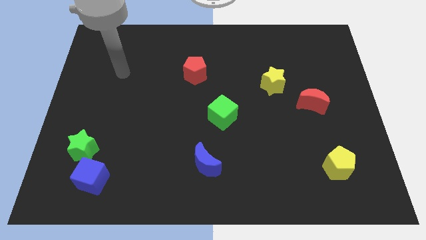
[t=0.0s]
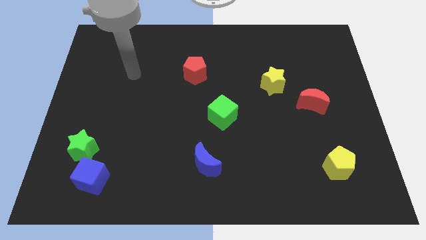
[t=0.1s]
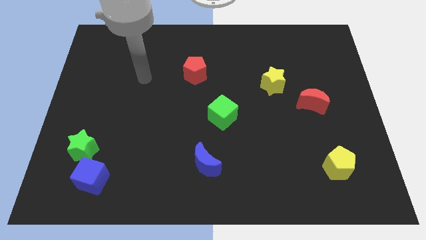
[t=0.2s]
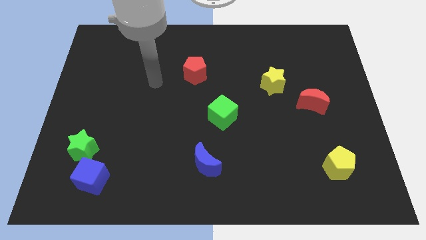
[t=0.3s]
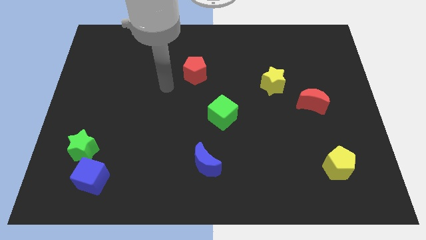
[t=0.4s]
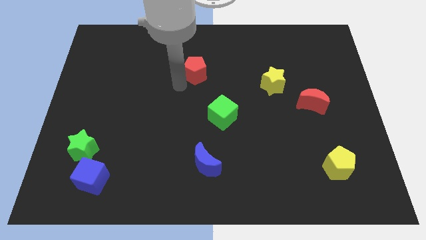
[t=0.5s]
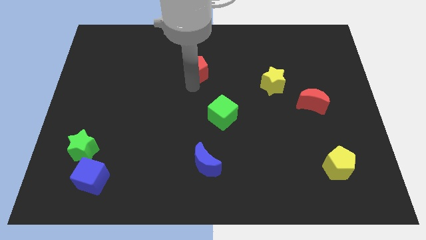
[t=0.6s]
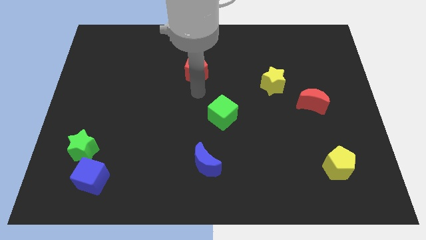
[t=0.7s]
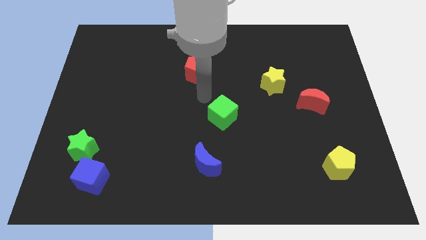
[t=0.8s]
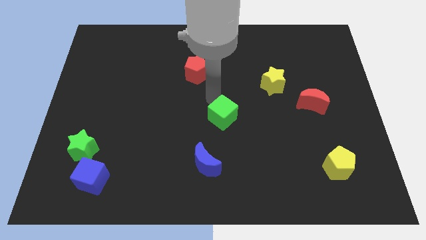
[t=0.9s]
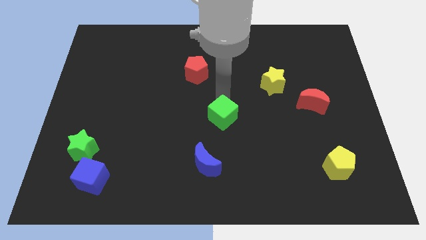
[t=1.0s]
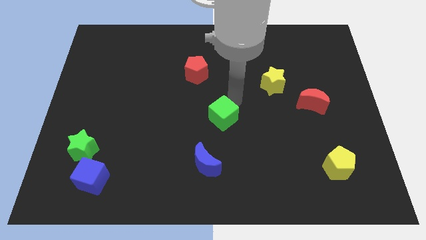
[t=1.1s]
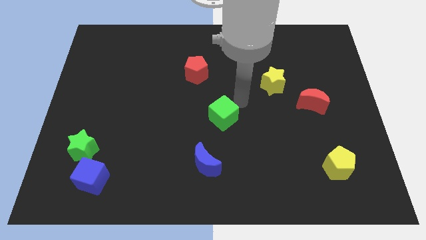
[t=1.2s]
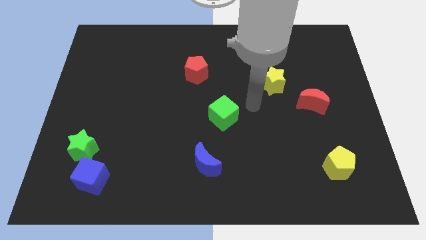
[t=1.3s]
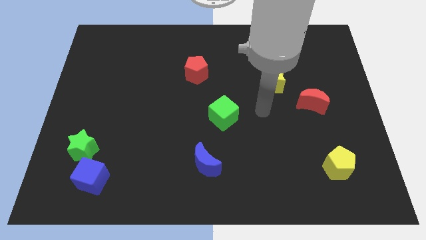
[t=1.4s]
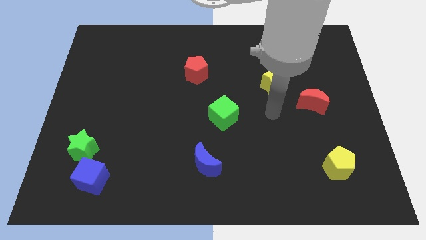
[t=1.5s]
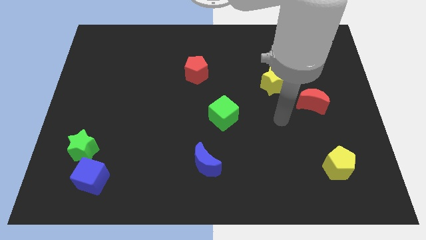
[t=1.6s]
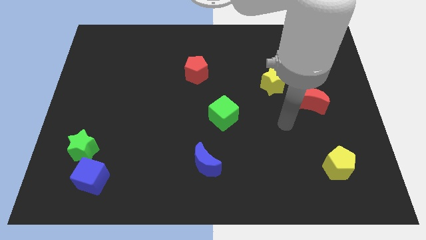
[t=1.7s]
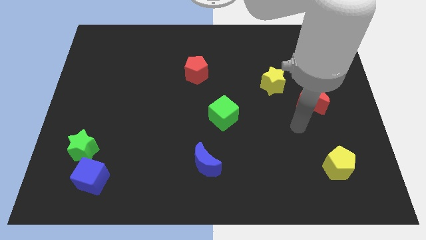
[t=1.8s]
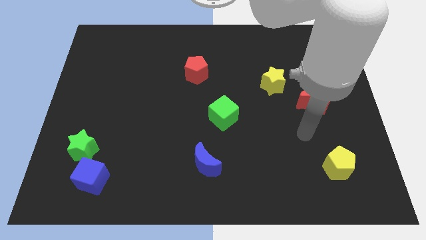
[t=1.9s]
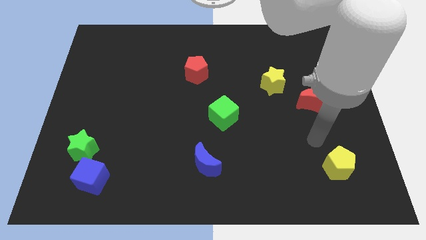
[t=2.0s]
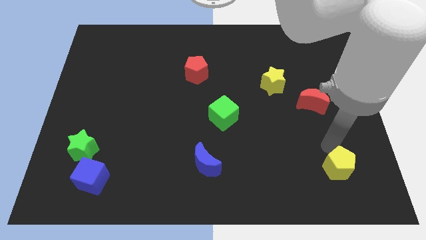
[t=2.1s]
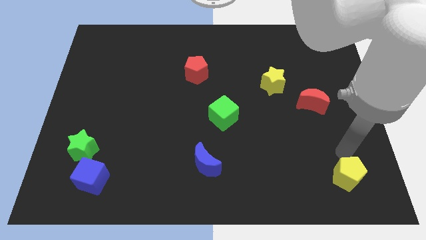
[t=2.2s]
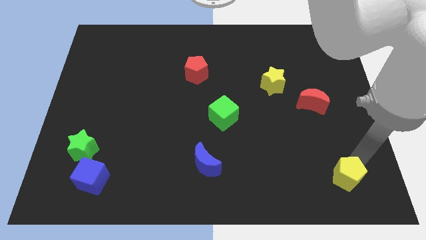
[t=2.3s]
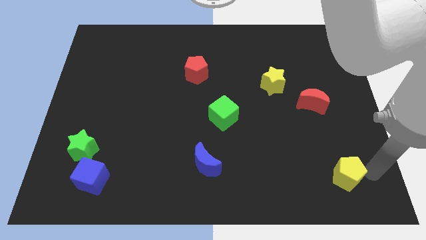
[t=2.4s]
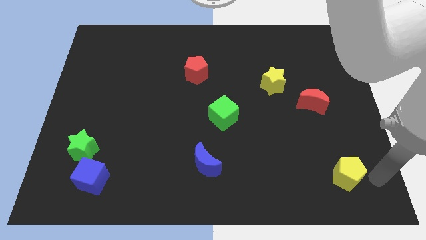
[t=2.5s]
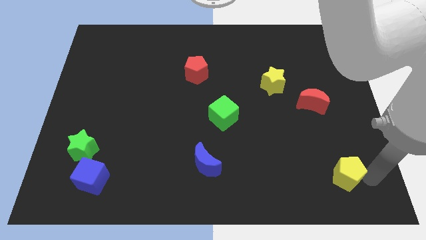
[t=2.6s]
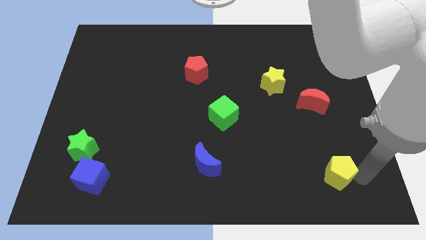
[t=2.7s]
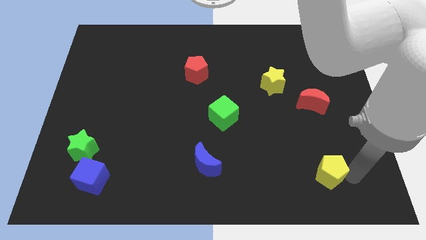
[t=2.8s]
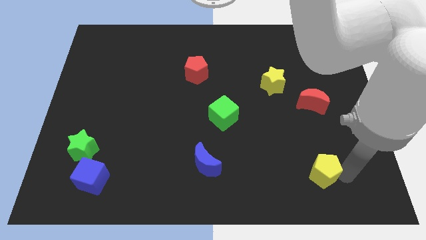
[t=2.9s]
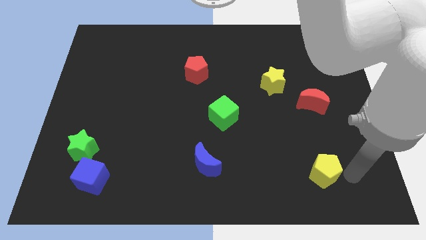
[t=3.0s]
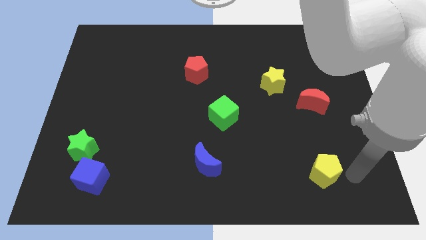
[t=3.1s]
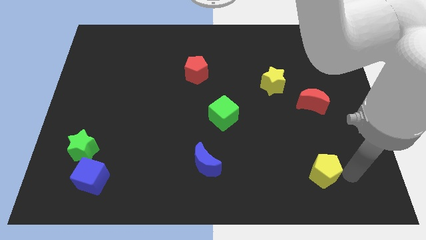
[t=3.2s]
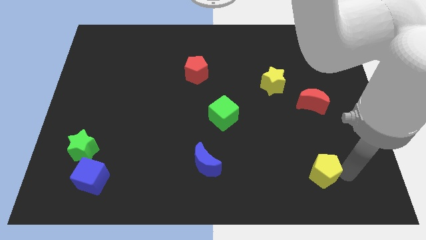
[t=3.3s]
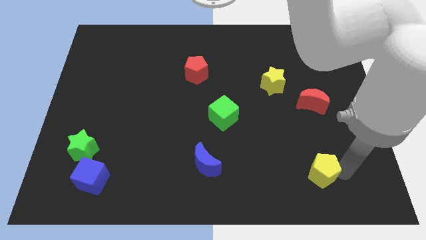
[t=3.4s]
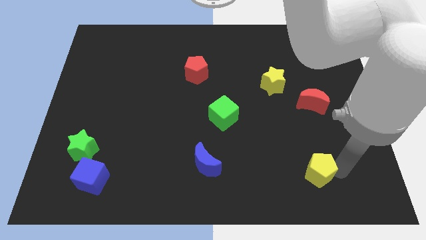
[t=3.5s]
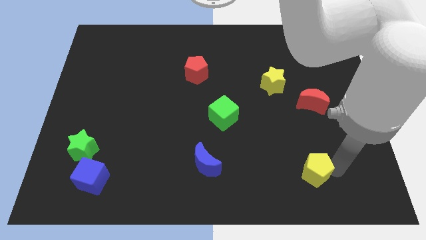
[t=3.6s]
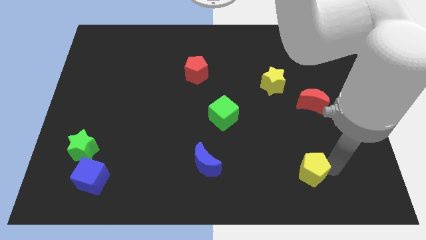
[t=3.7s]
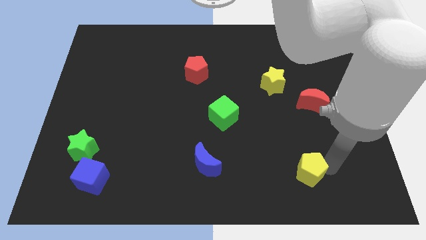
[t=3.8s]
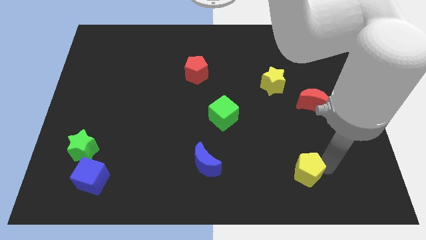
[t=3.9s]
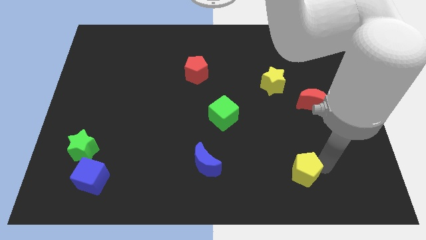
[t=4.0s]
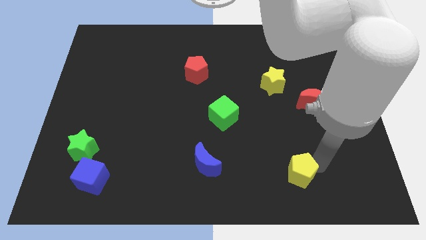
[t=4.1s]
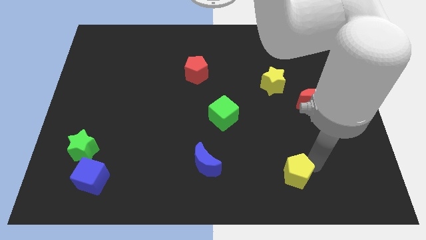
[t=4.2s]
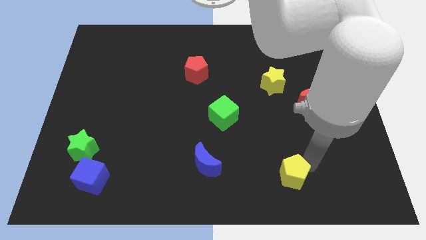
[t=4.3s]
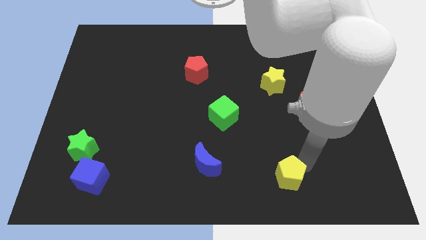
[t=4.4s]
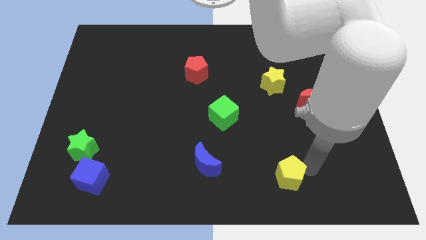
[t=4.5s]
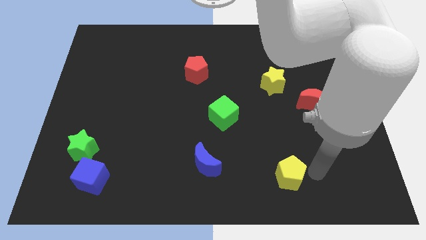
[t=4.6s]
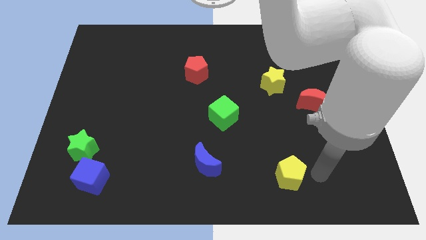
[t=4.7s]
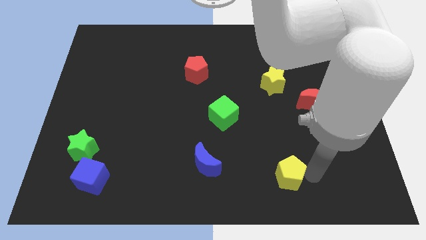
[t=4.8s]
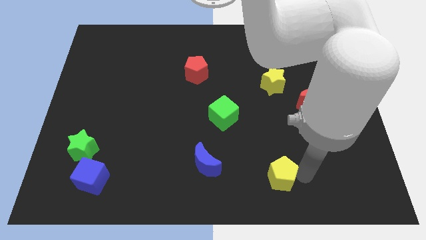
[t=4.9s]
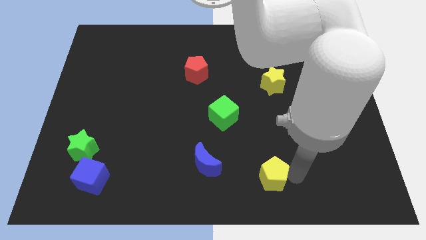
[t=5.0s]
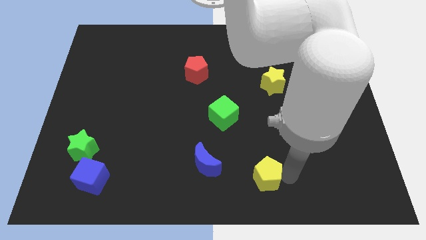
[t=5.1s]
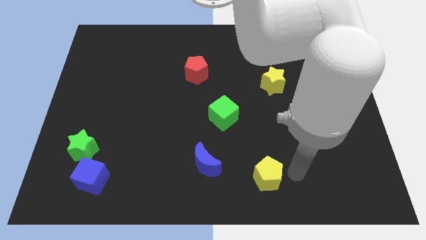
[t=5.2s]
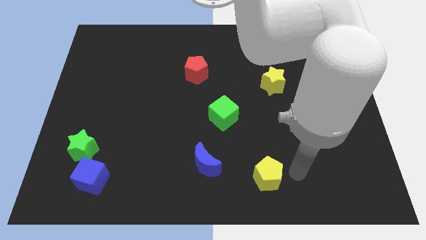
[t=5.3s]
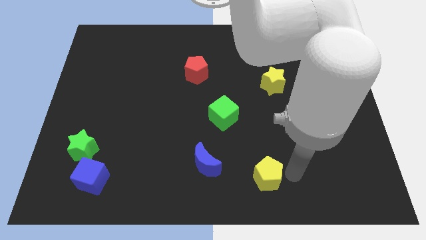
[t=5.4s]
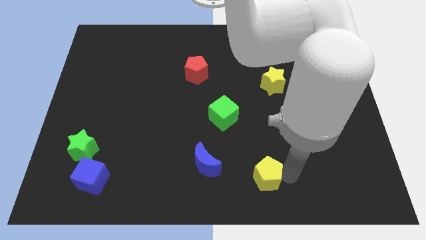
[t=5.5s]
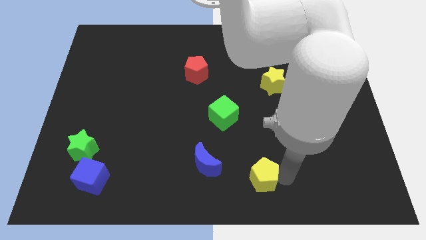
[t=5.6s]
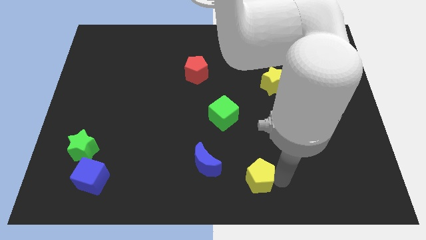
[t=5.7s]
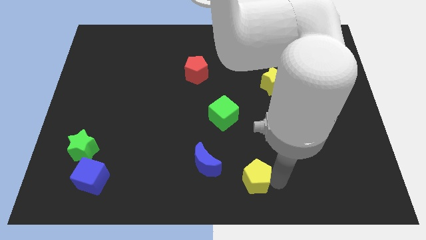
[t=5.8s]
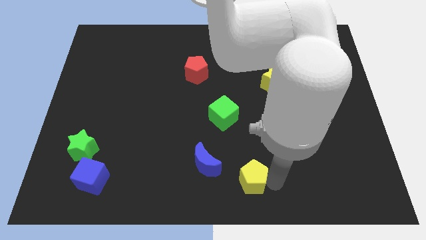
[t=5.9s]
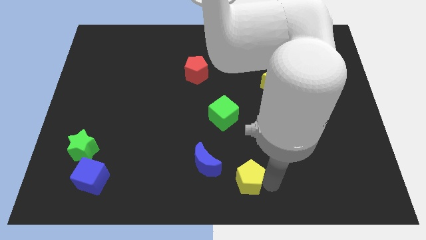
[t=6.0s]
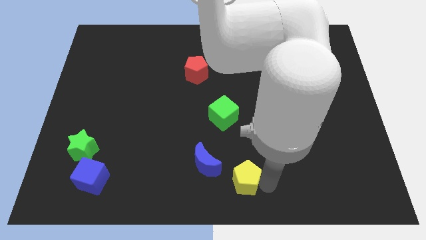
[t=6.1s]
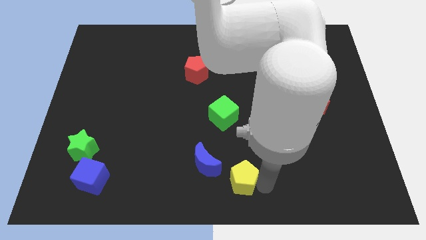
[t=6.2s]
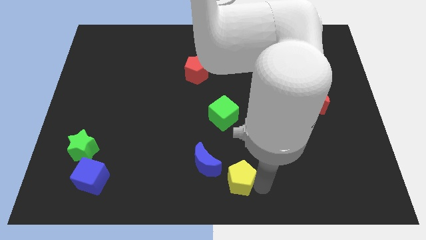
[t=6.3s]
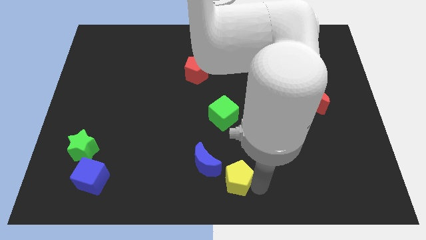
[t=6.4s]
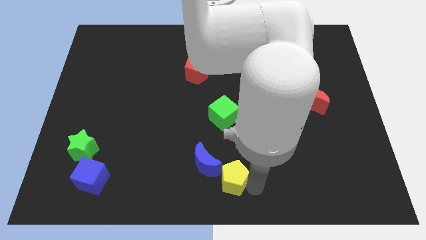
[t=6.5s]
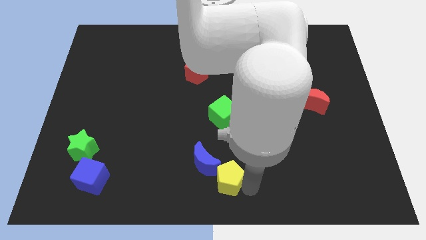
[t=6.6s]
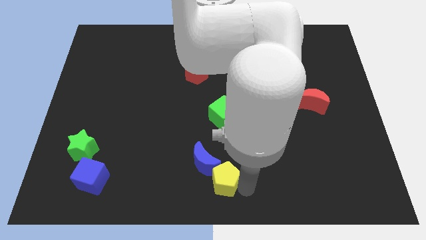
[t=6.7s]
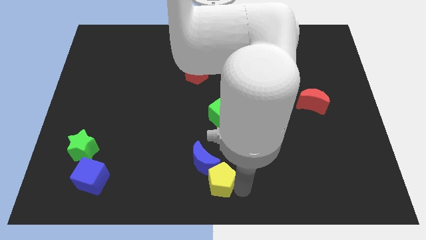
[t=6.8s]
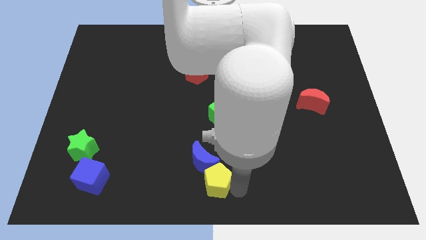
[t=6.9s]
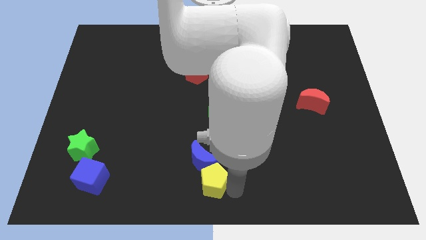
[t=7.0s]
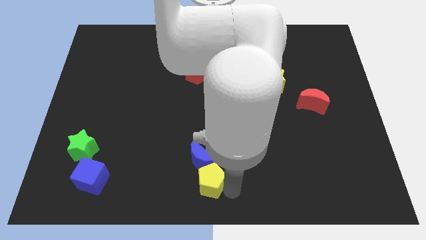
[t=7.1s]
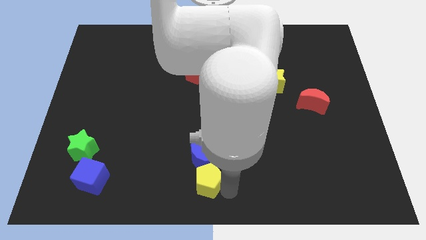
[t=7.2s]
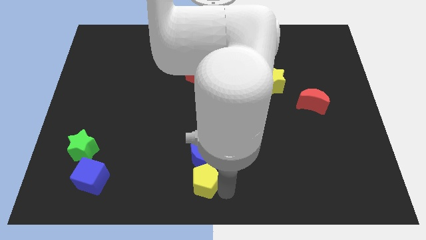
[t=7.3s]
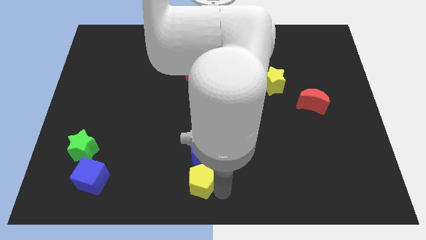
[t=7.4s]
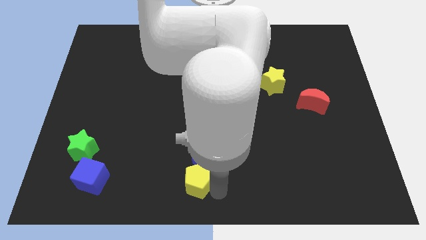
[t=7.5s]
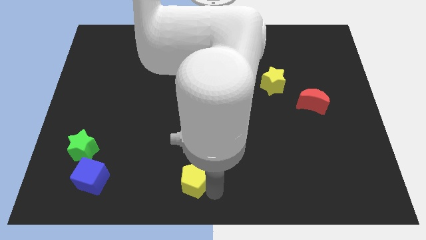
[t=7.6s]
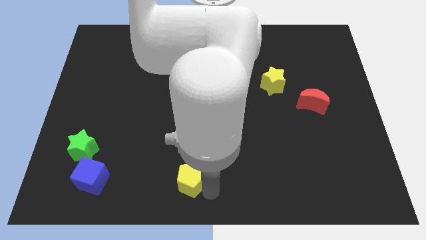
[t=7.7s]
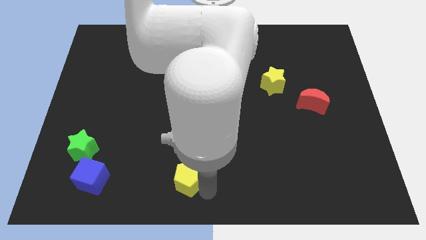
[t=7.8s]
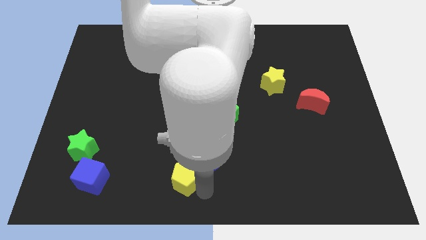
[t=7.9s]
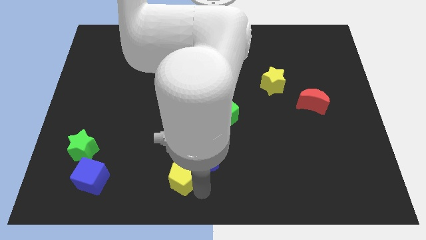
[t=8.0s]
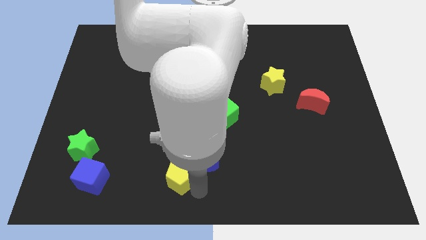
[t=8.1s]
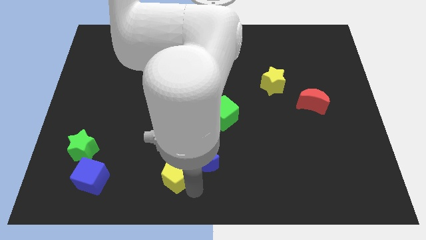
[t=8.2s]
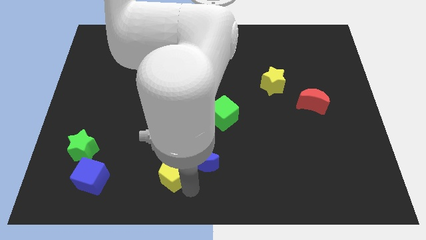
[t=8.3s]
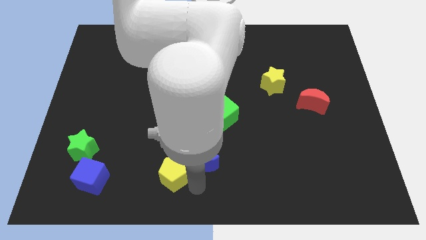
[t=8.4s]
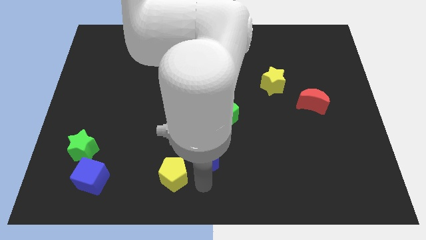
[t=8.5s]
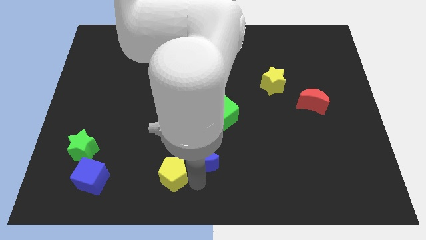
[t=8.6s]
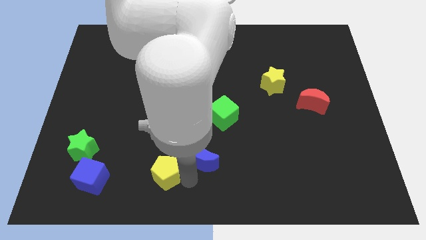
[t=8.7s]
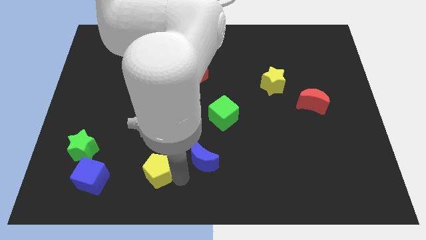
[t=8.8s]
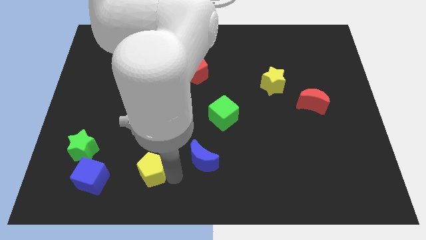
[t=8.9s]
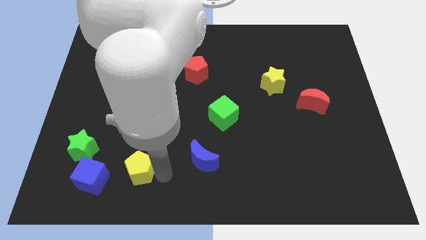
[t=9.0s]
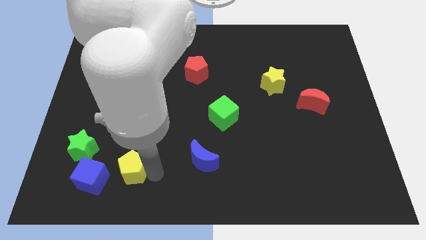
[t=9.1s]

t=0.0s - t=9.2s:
push the yellow pentagon to the top right of the blue cube
